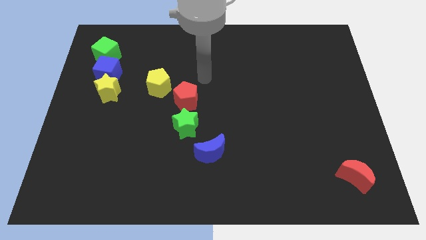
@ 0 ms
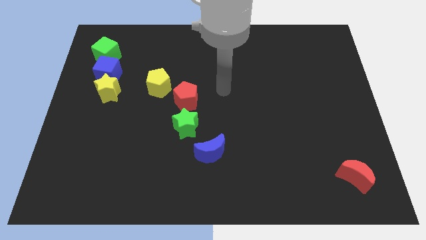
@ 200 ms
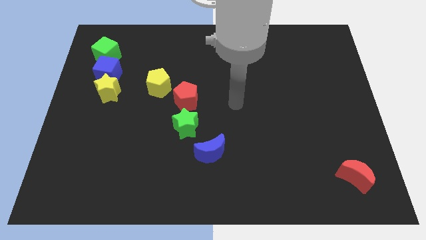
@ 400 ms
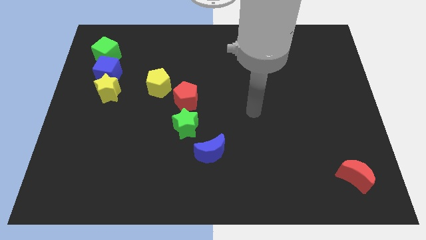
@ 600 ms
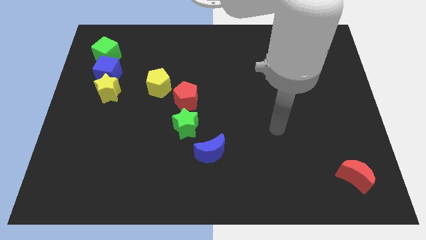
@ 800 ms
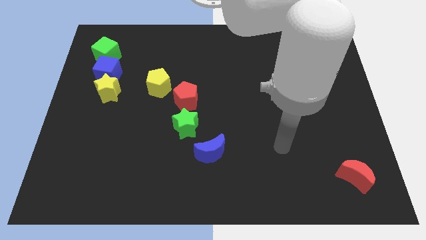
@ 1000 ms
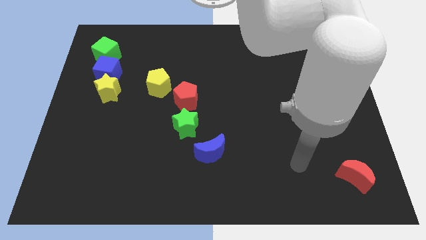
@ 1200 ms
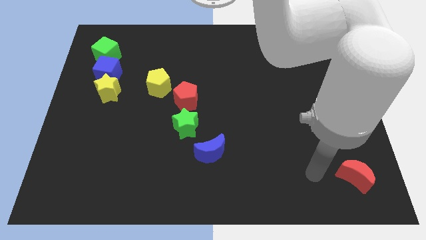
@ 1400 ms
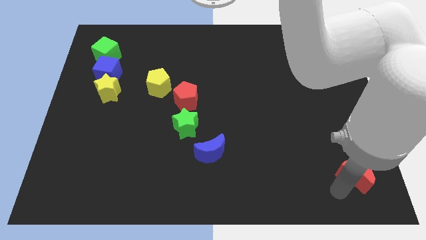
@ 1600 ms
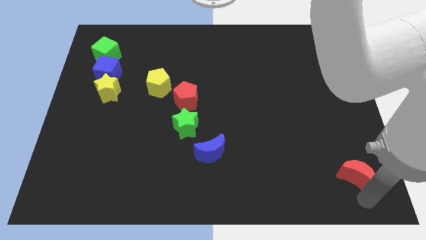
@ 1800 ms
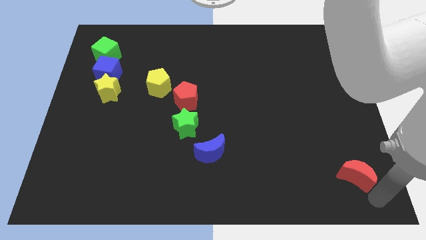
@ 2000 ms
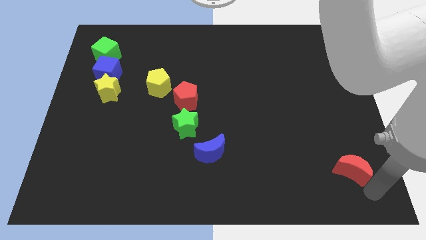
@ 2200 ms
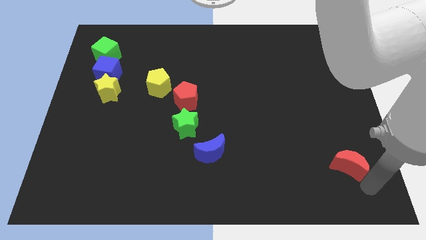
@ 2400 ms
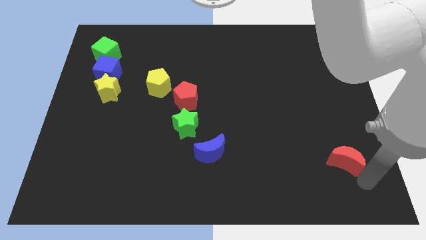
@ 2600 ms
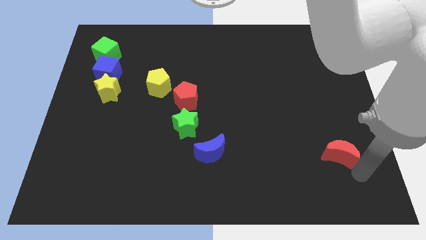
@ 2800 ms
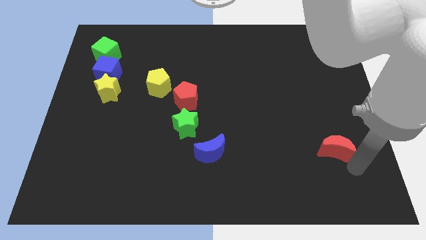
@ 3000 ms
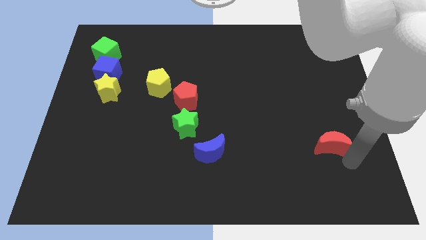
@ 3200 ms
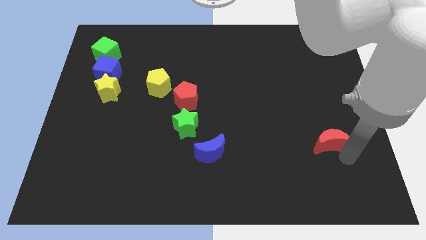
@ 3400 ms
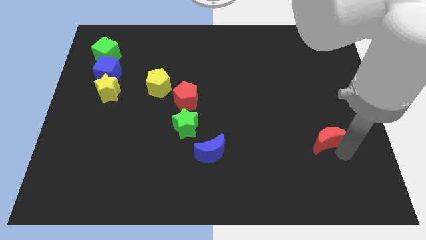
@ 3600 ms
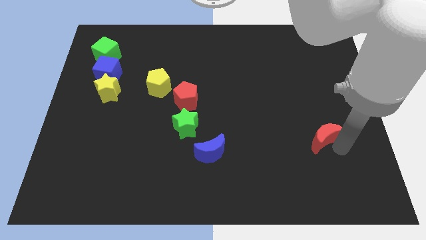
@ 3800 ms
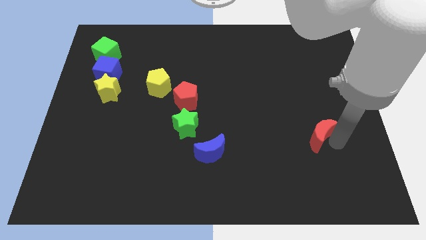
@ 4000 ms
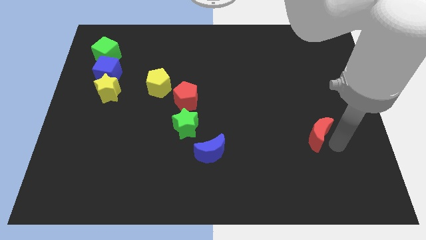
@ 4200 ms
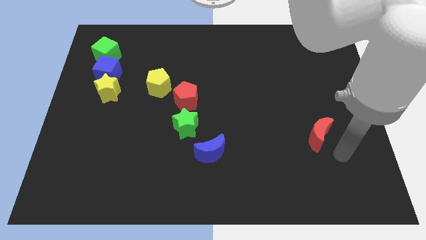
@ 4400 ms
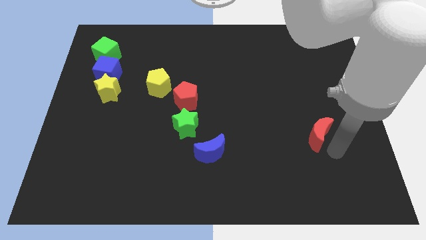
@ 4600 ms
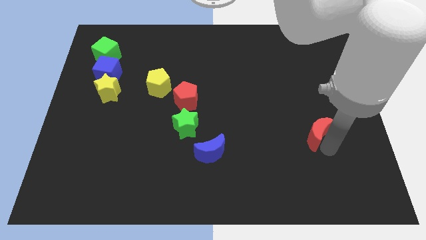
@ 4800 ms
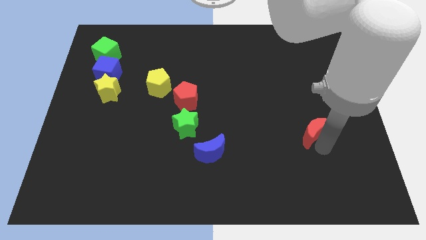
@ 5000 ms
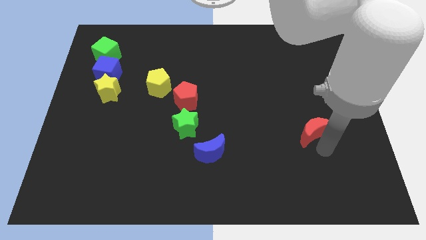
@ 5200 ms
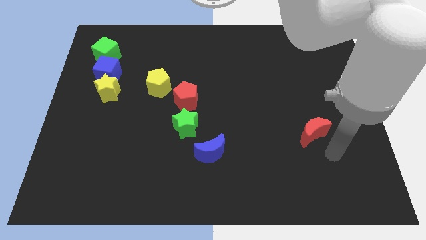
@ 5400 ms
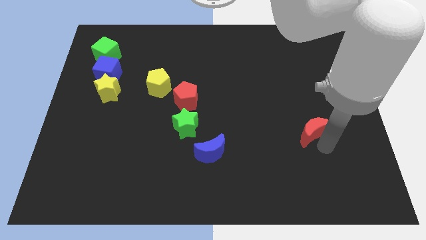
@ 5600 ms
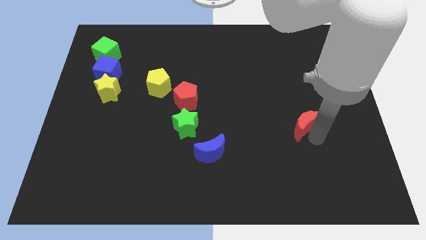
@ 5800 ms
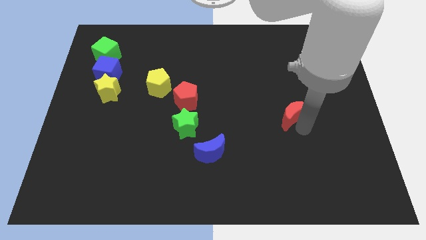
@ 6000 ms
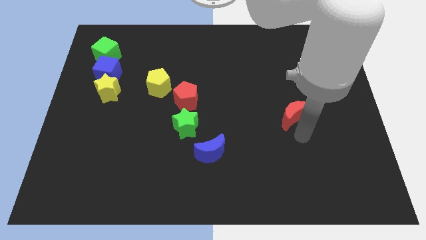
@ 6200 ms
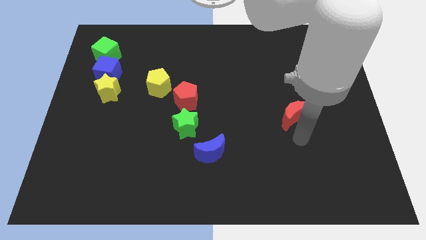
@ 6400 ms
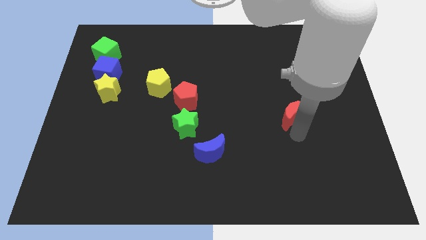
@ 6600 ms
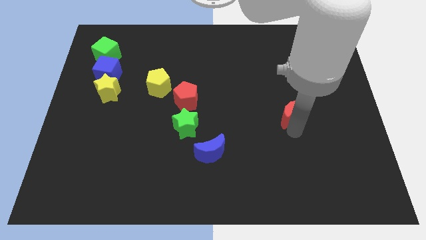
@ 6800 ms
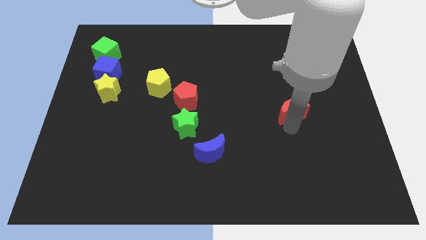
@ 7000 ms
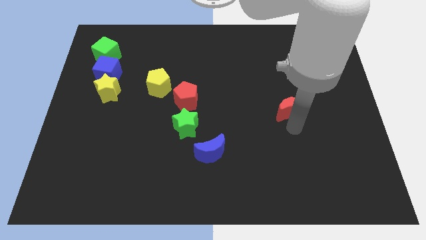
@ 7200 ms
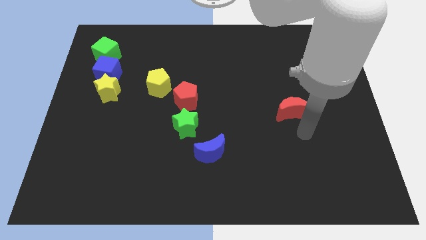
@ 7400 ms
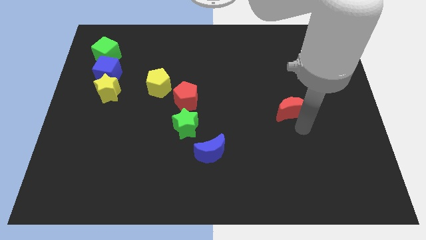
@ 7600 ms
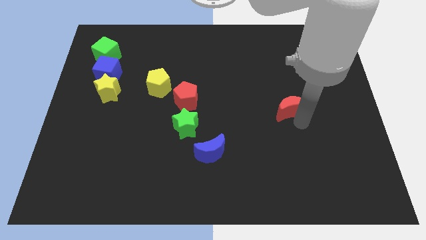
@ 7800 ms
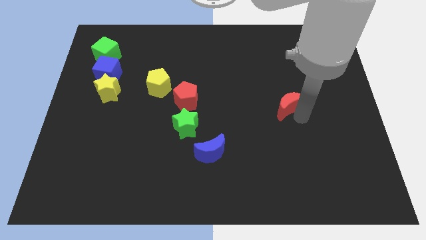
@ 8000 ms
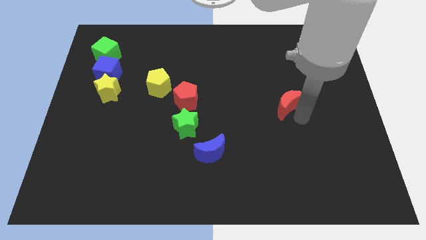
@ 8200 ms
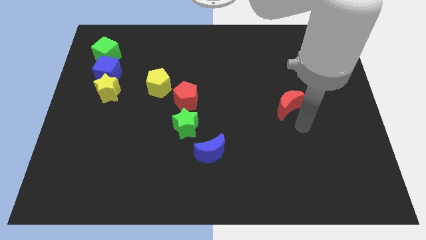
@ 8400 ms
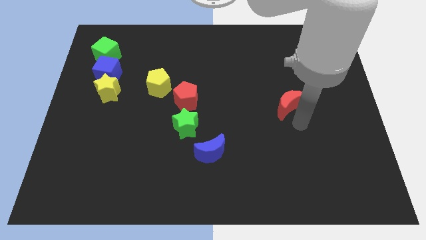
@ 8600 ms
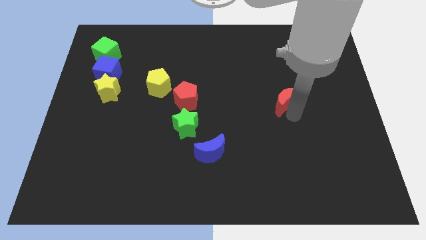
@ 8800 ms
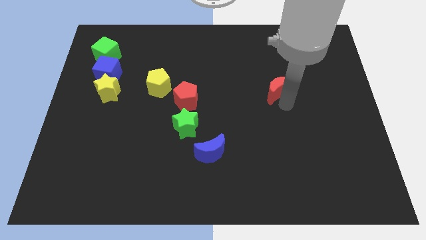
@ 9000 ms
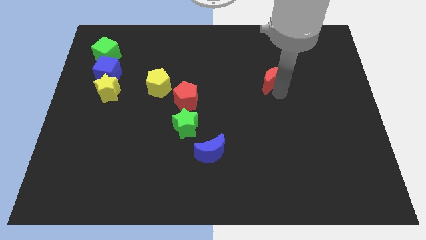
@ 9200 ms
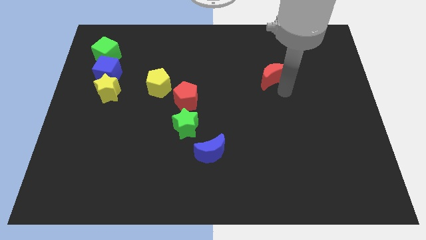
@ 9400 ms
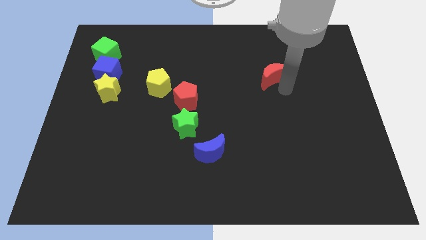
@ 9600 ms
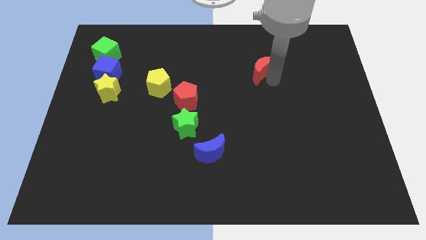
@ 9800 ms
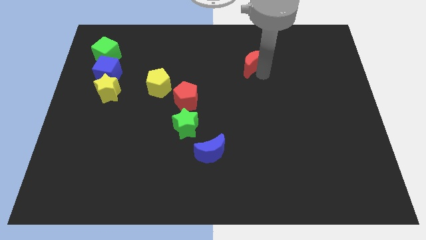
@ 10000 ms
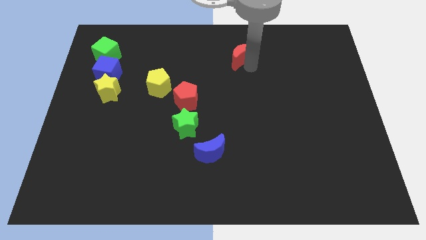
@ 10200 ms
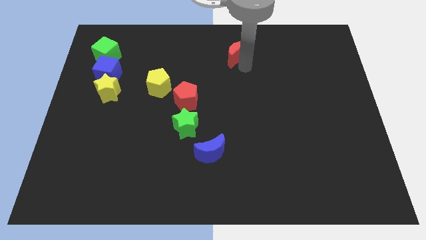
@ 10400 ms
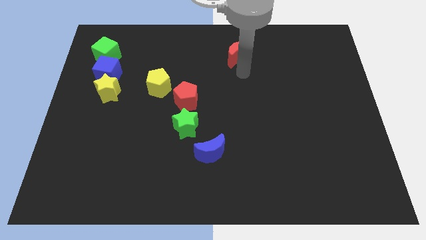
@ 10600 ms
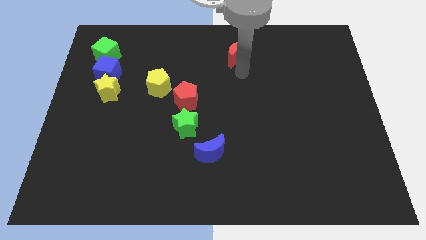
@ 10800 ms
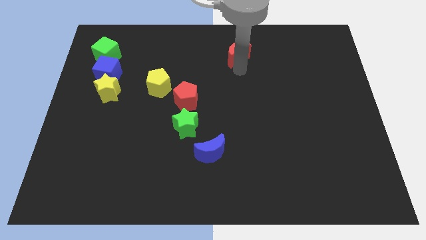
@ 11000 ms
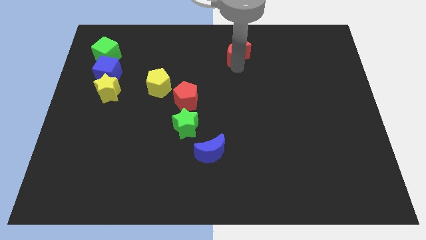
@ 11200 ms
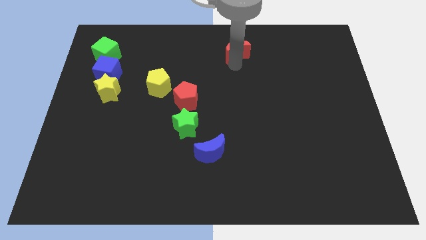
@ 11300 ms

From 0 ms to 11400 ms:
push the red moon to the towards your base
